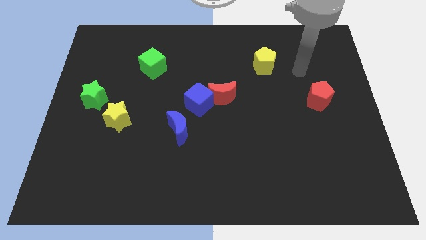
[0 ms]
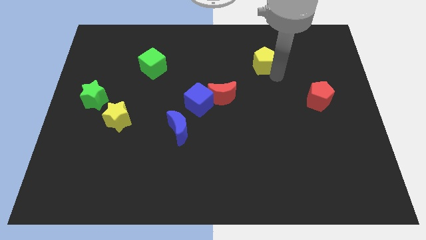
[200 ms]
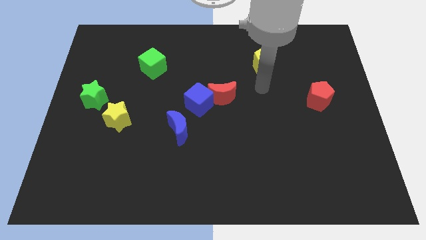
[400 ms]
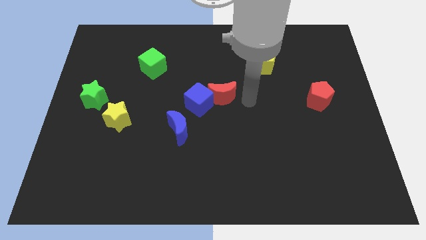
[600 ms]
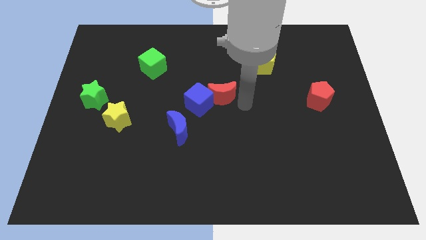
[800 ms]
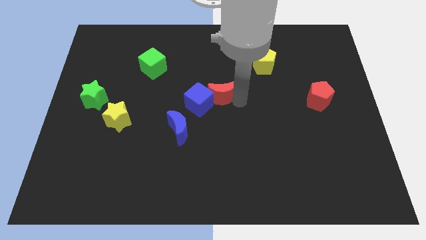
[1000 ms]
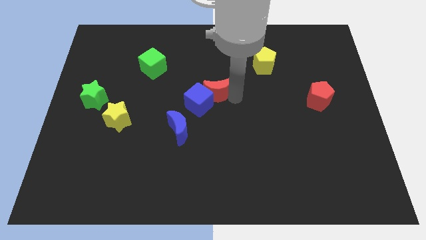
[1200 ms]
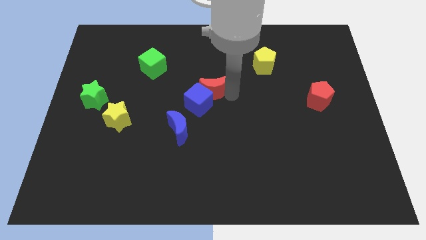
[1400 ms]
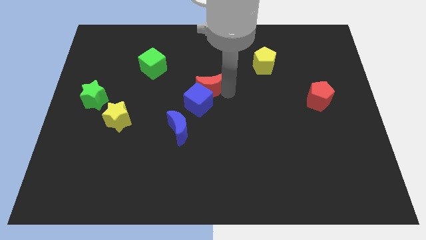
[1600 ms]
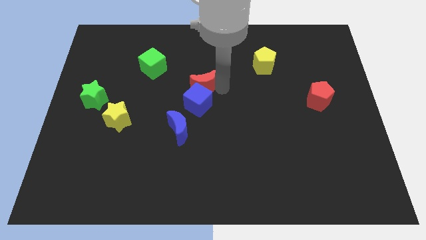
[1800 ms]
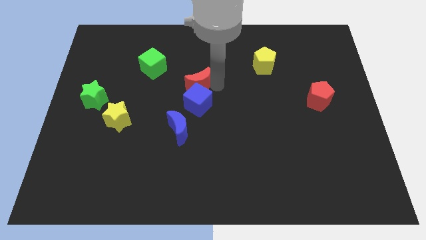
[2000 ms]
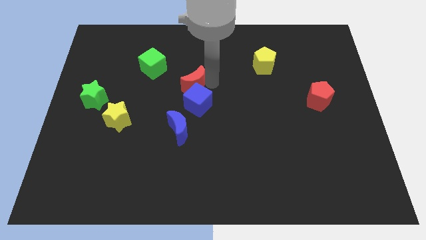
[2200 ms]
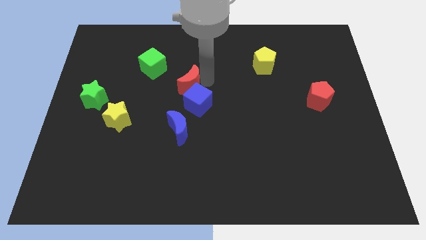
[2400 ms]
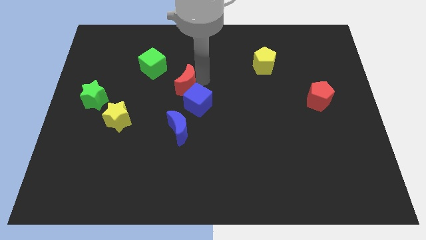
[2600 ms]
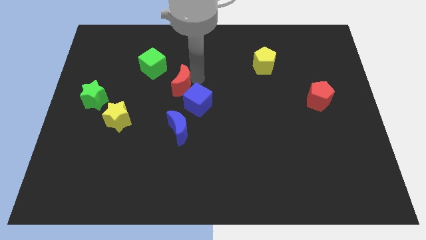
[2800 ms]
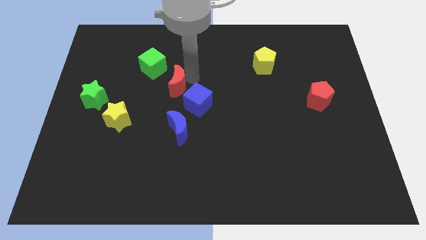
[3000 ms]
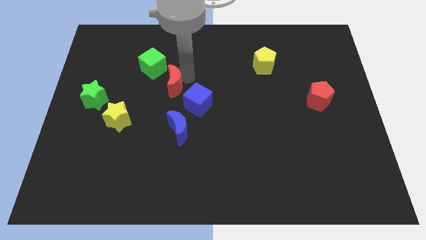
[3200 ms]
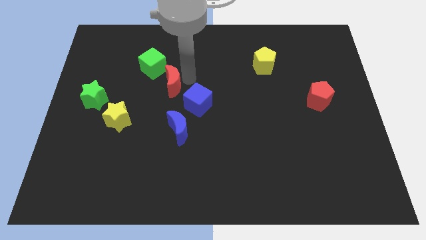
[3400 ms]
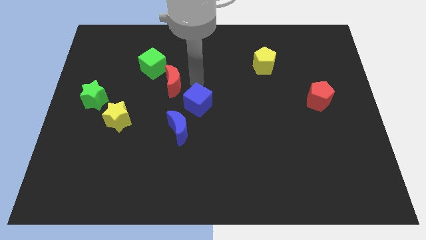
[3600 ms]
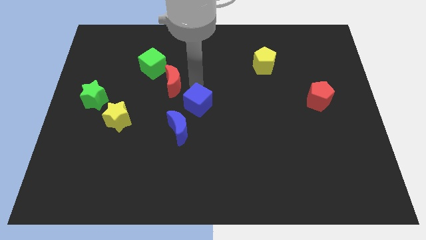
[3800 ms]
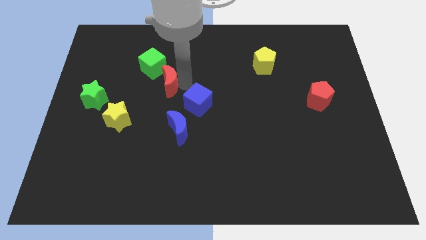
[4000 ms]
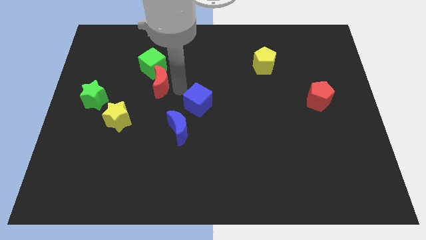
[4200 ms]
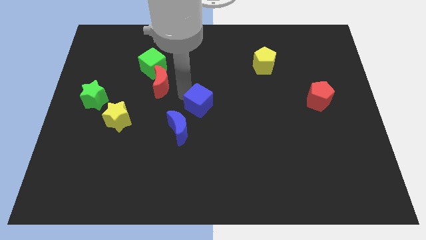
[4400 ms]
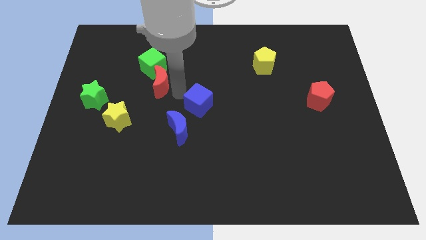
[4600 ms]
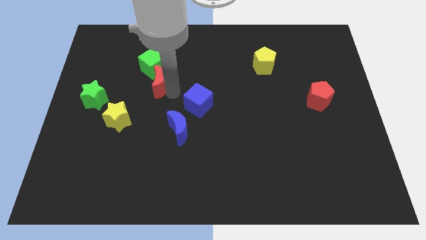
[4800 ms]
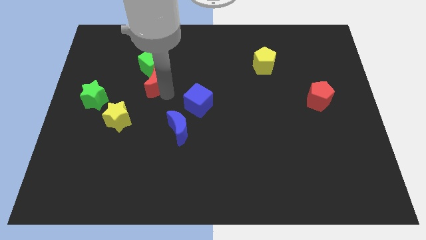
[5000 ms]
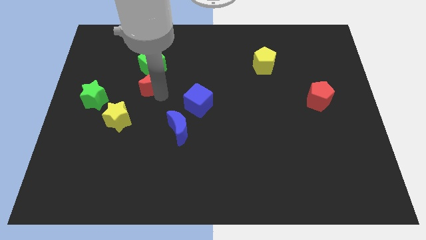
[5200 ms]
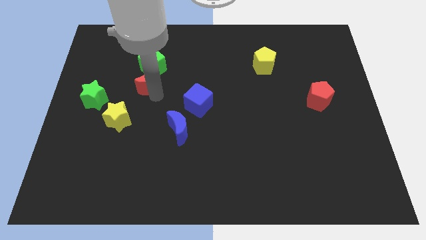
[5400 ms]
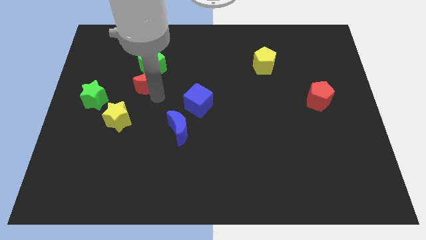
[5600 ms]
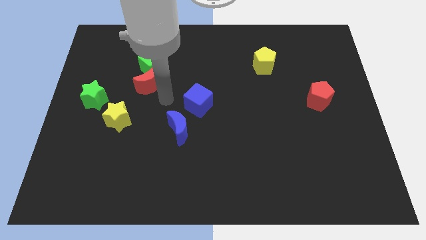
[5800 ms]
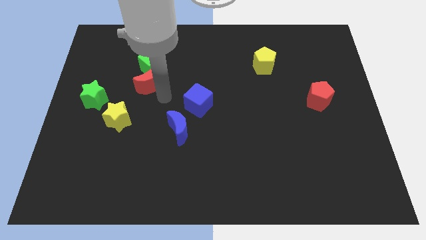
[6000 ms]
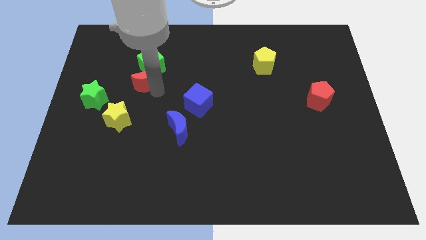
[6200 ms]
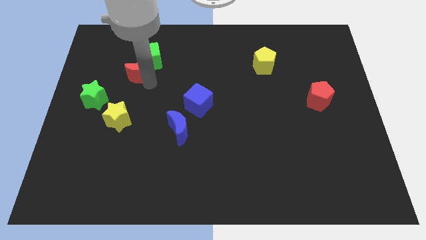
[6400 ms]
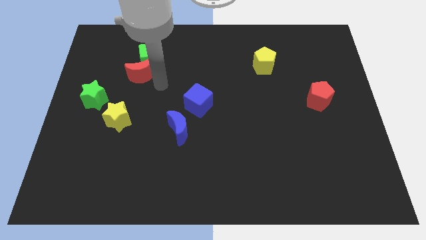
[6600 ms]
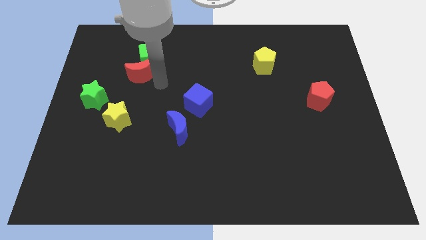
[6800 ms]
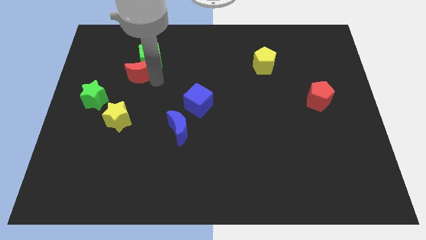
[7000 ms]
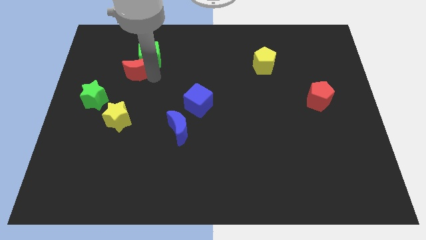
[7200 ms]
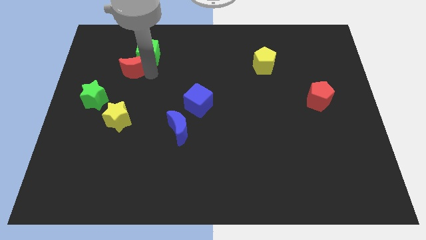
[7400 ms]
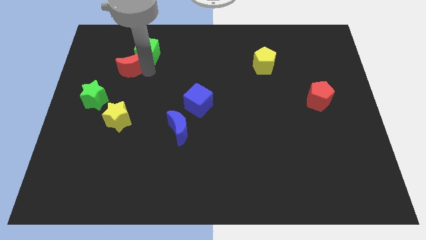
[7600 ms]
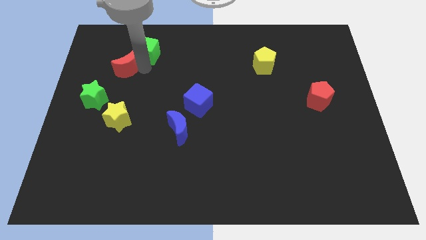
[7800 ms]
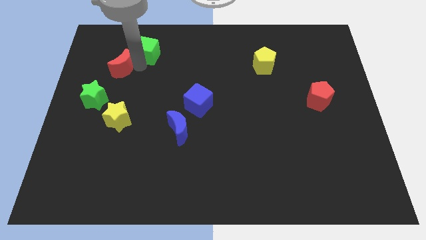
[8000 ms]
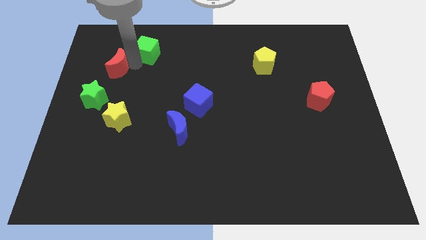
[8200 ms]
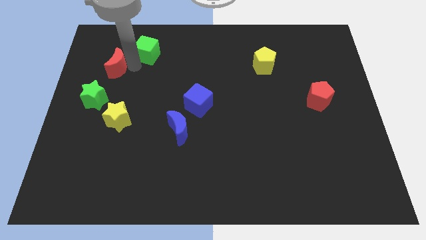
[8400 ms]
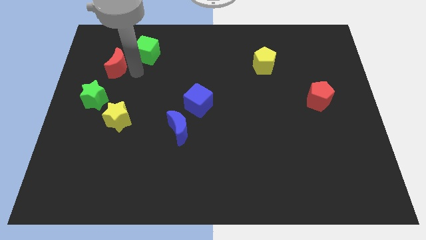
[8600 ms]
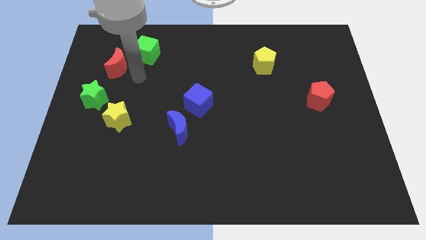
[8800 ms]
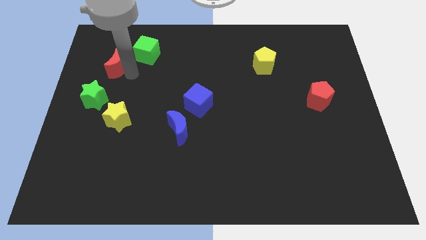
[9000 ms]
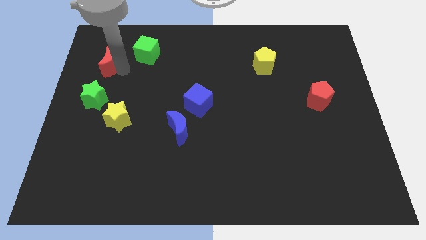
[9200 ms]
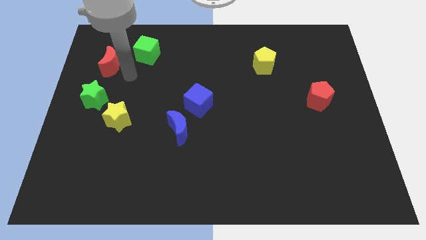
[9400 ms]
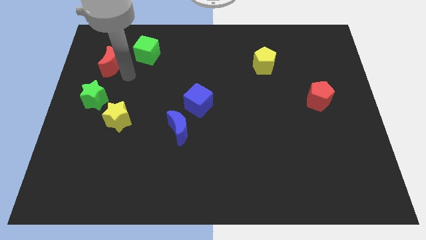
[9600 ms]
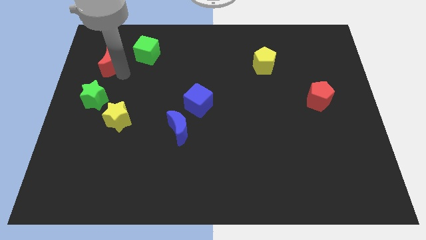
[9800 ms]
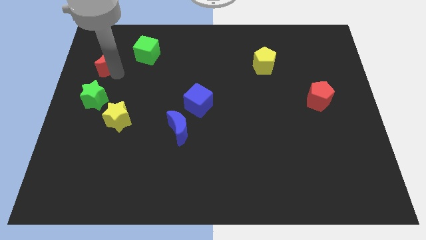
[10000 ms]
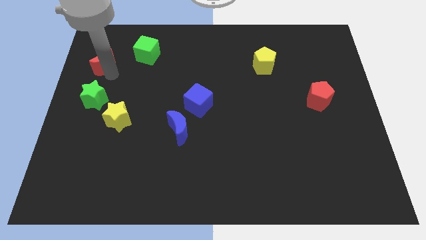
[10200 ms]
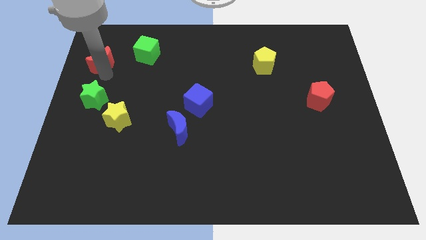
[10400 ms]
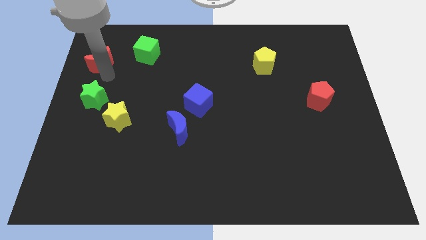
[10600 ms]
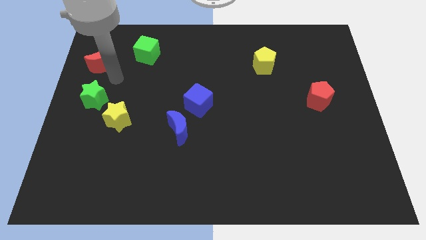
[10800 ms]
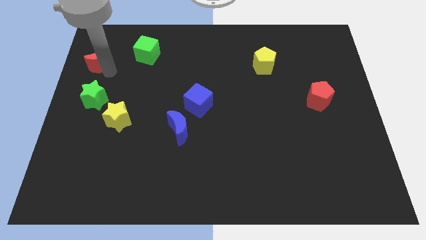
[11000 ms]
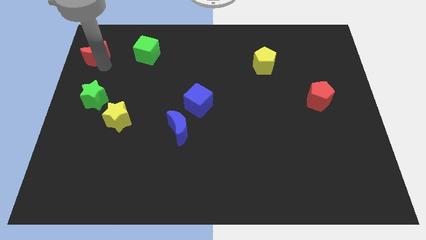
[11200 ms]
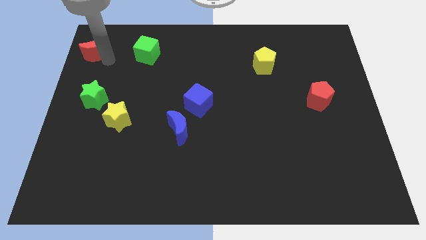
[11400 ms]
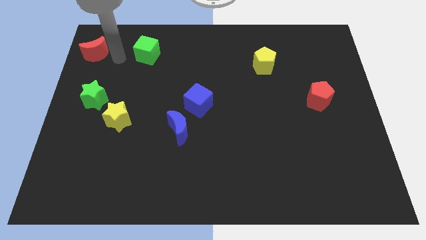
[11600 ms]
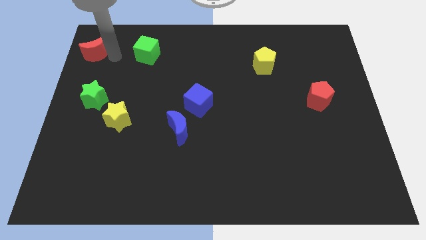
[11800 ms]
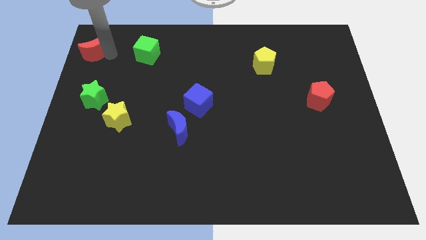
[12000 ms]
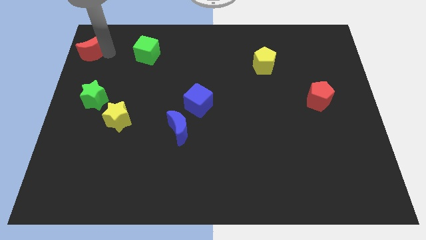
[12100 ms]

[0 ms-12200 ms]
push the red moon to the upper left corner

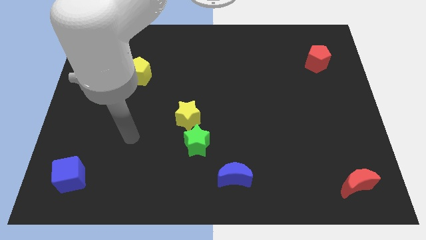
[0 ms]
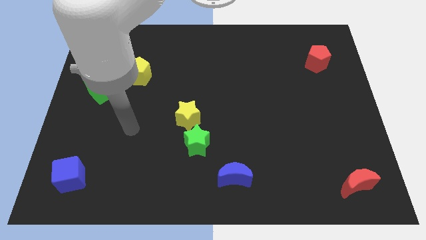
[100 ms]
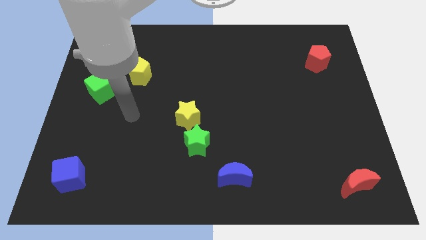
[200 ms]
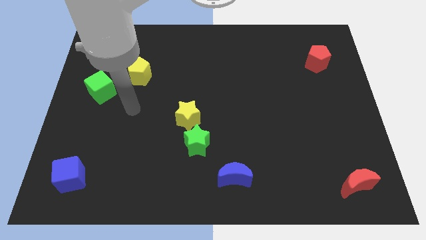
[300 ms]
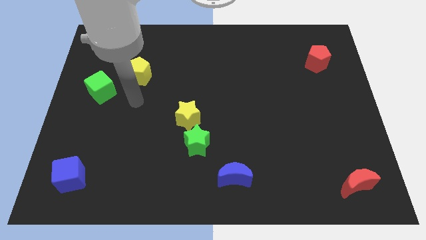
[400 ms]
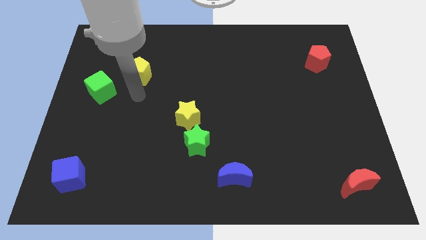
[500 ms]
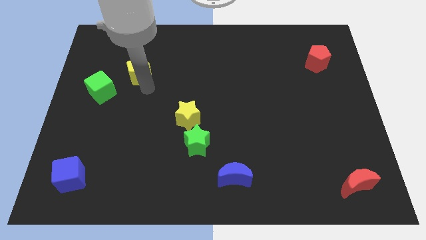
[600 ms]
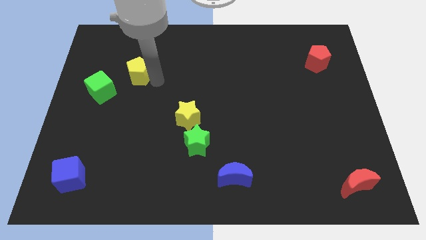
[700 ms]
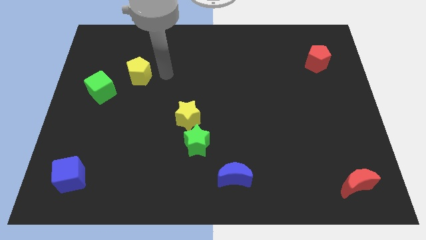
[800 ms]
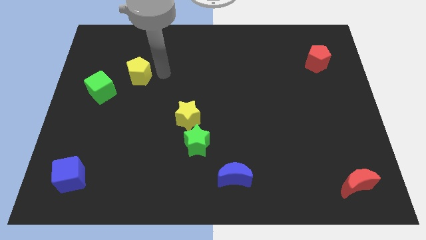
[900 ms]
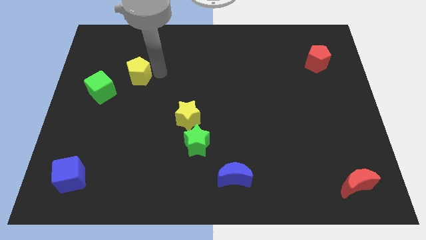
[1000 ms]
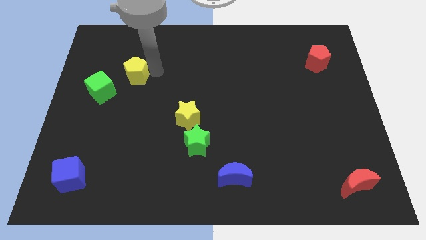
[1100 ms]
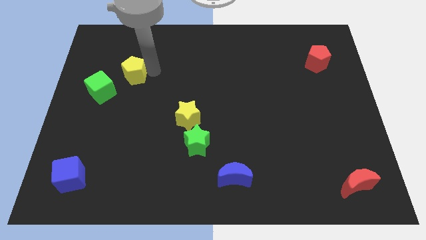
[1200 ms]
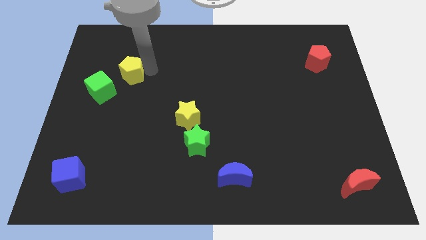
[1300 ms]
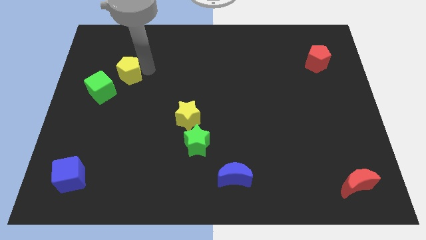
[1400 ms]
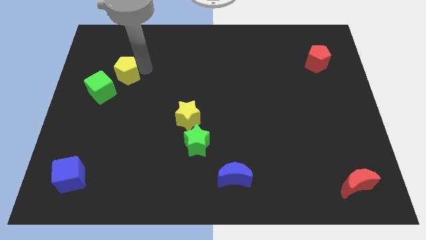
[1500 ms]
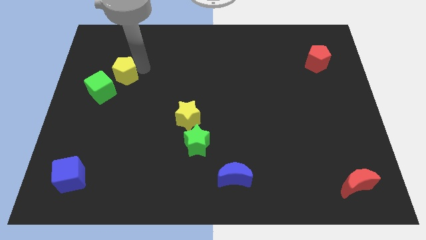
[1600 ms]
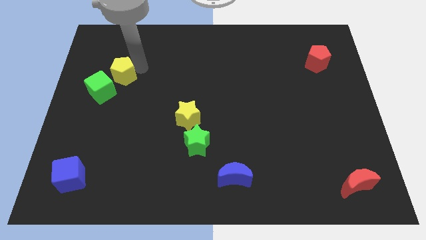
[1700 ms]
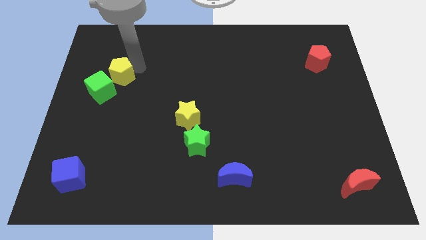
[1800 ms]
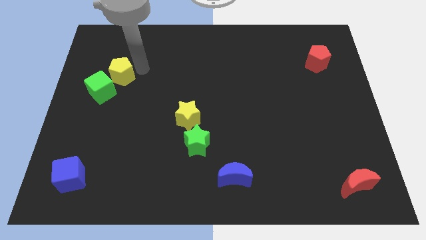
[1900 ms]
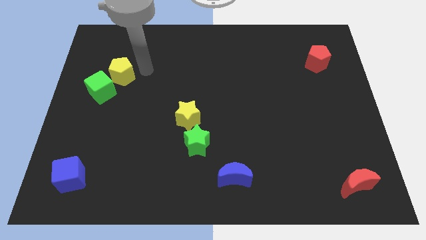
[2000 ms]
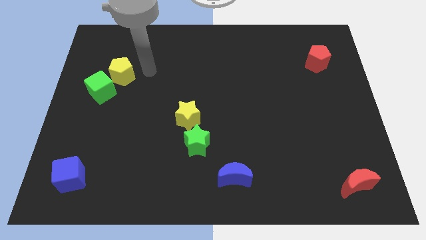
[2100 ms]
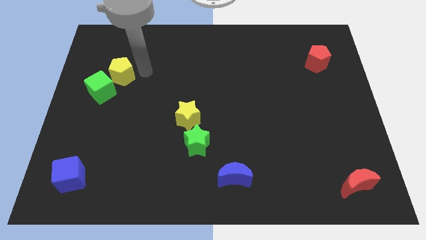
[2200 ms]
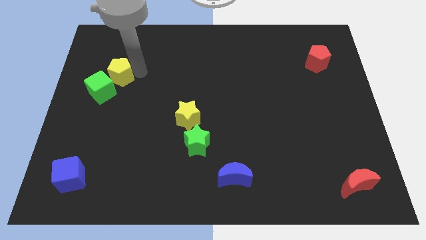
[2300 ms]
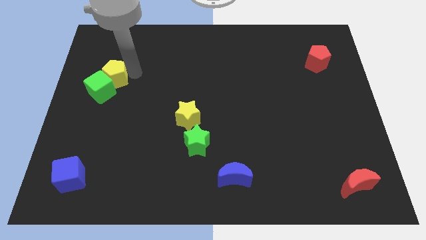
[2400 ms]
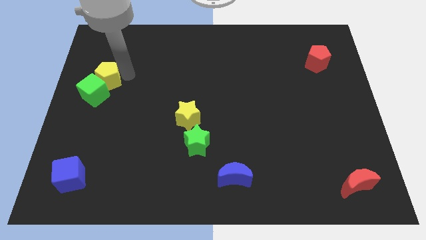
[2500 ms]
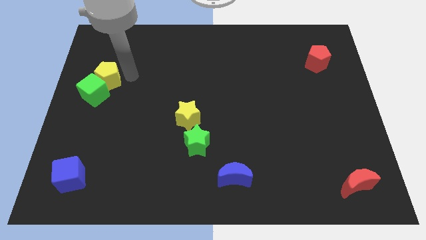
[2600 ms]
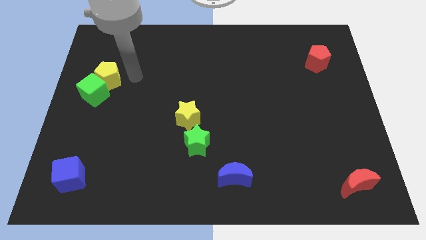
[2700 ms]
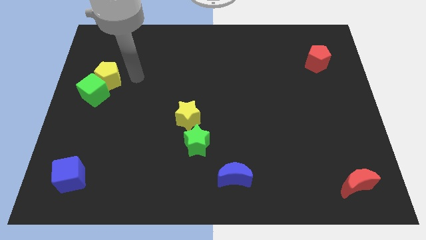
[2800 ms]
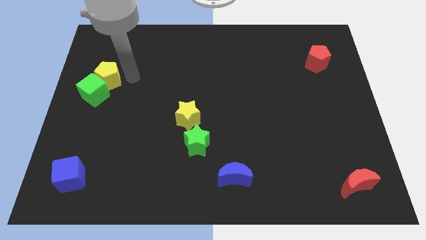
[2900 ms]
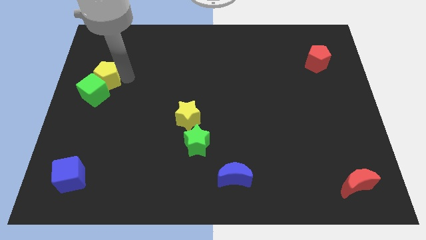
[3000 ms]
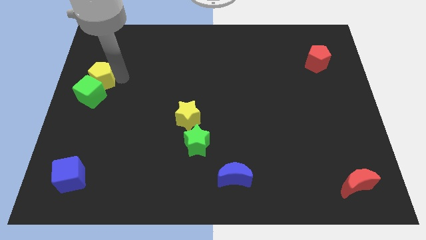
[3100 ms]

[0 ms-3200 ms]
put the yellow pentagon to the left side
